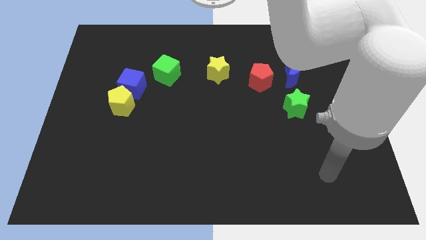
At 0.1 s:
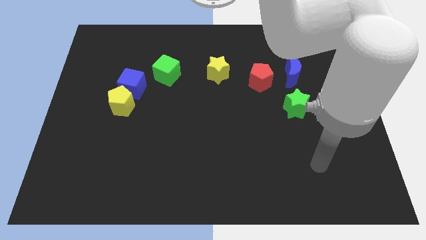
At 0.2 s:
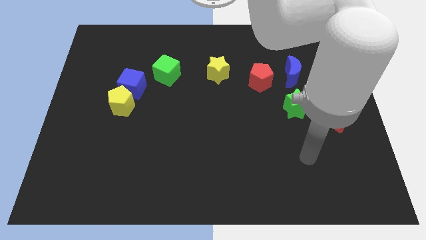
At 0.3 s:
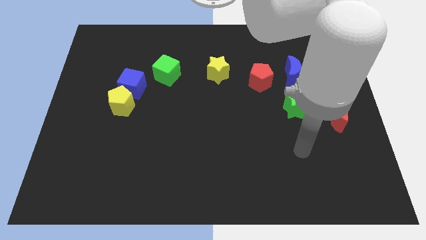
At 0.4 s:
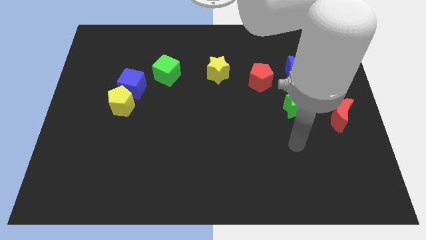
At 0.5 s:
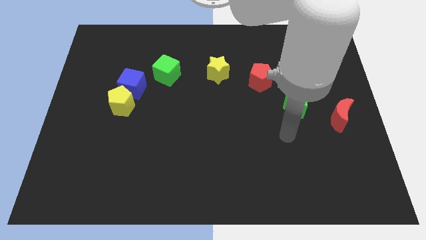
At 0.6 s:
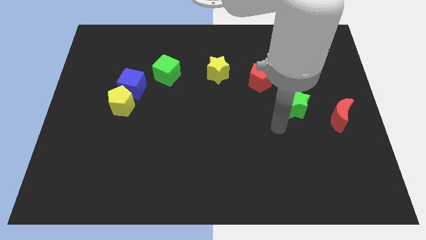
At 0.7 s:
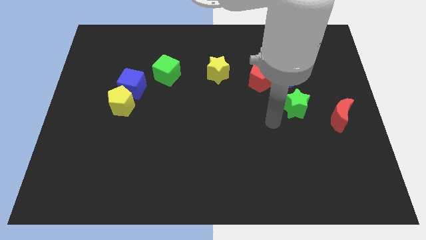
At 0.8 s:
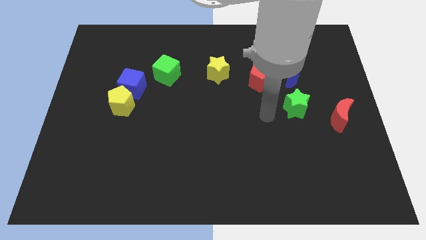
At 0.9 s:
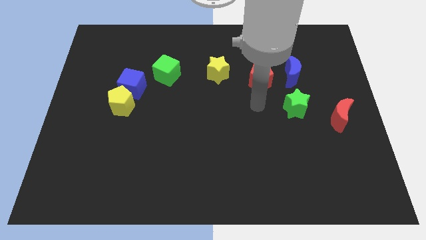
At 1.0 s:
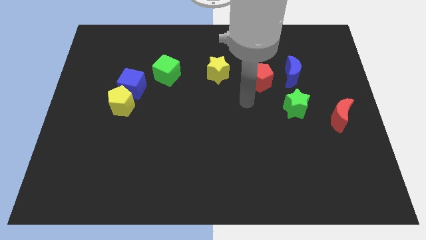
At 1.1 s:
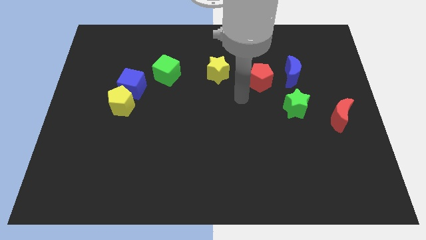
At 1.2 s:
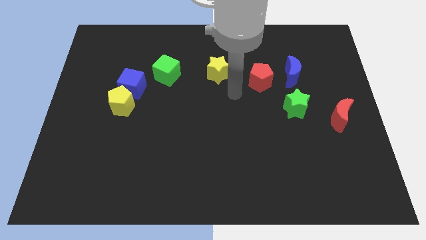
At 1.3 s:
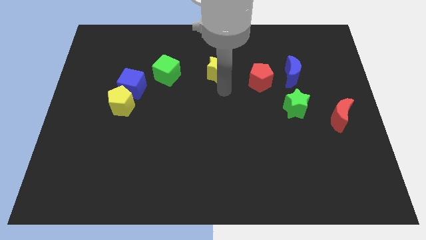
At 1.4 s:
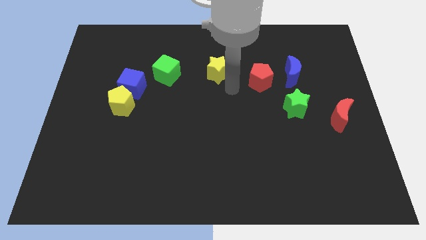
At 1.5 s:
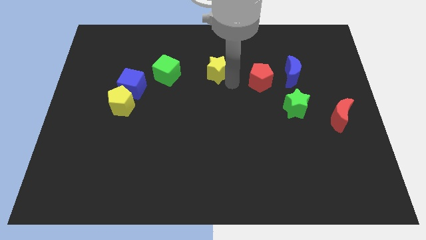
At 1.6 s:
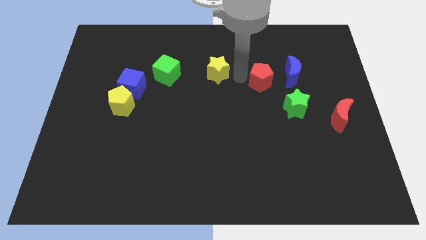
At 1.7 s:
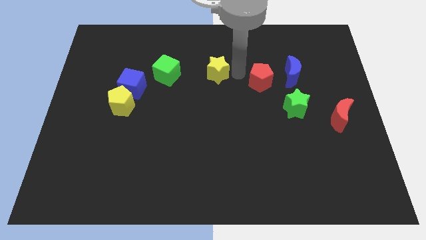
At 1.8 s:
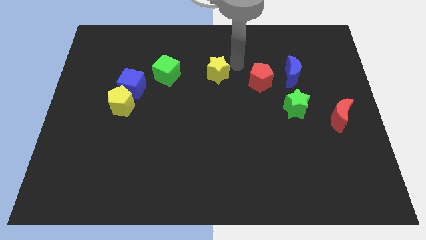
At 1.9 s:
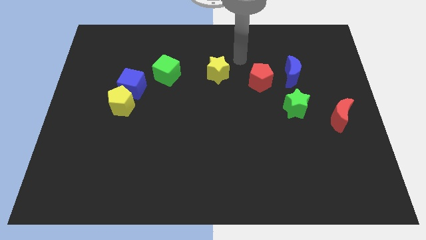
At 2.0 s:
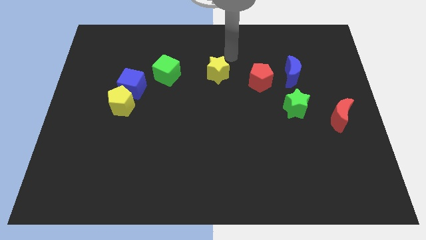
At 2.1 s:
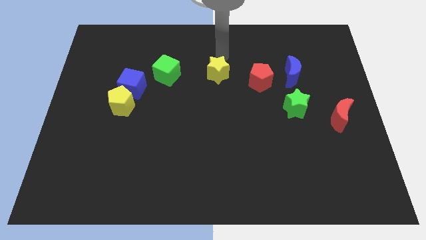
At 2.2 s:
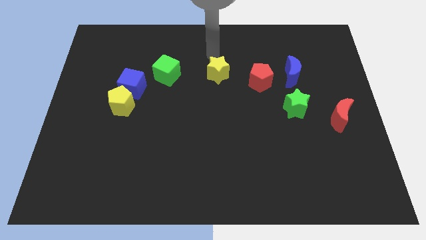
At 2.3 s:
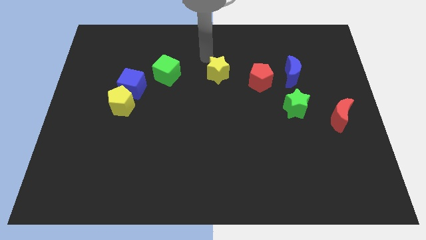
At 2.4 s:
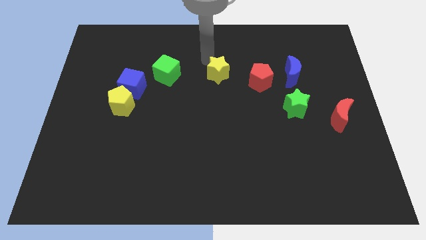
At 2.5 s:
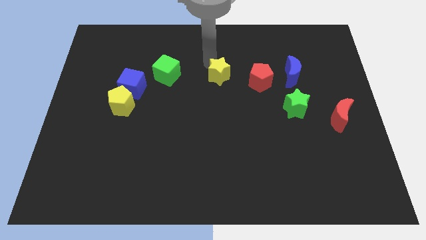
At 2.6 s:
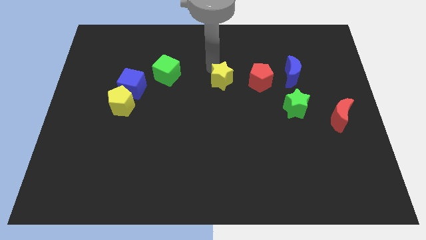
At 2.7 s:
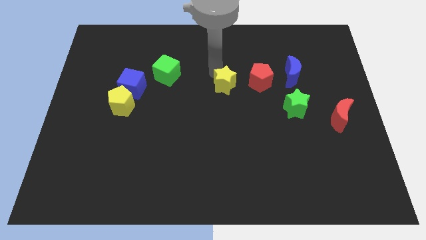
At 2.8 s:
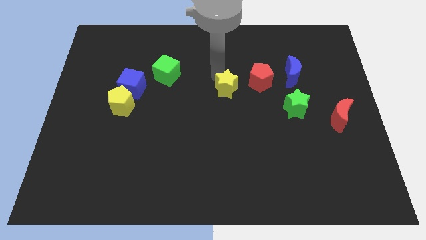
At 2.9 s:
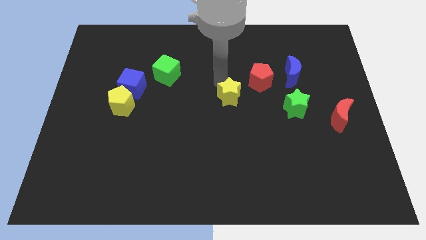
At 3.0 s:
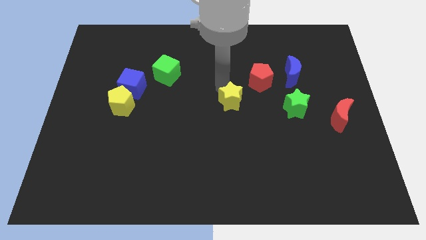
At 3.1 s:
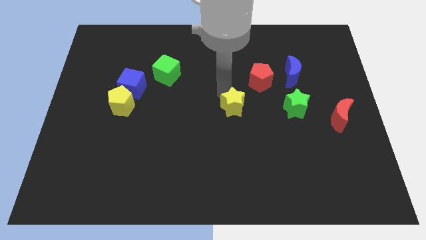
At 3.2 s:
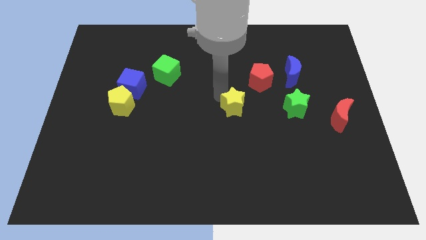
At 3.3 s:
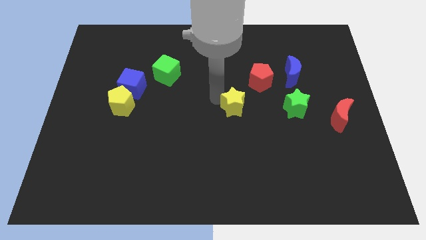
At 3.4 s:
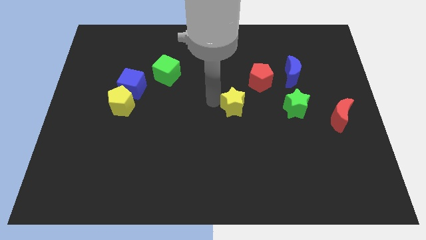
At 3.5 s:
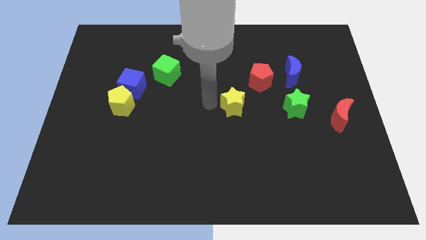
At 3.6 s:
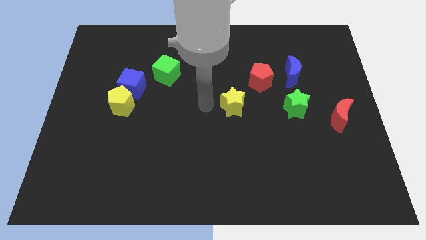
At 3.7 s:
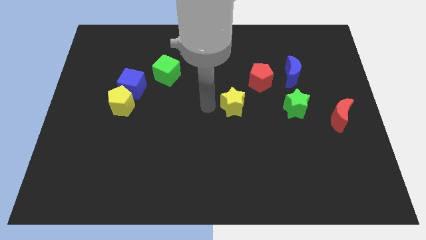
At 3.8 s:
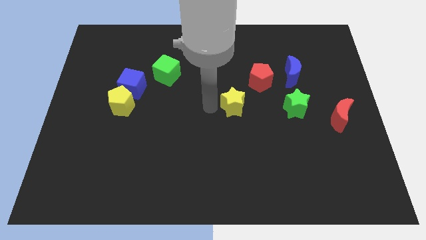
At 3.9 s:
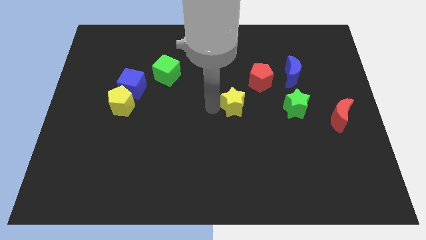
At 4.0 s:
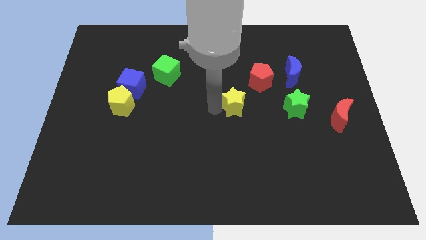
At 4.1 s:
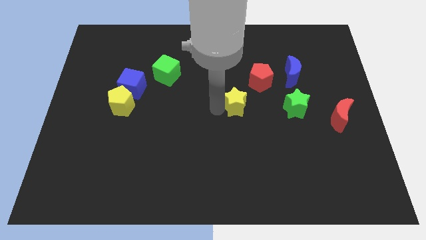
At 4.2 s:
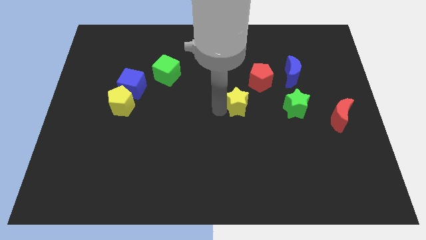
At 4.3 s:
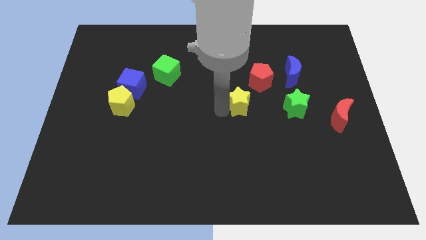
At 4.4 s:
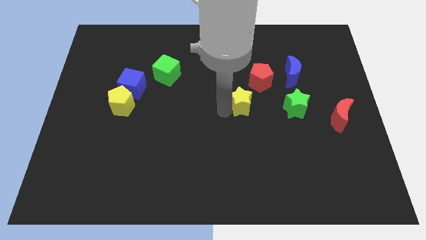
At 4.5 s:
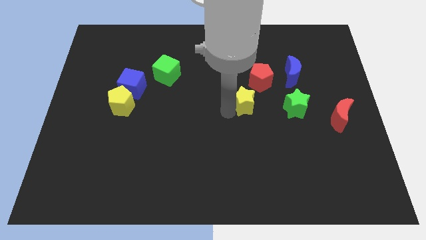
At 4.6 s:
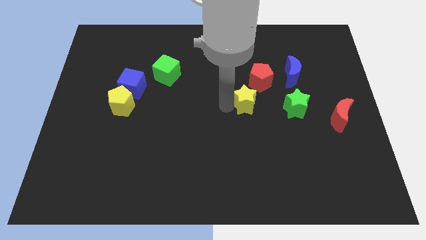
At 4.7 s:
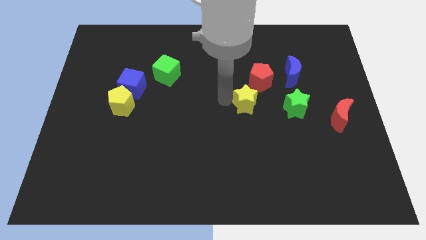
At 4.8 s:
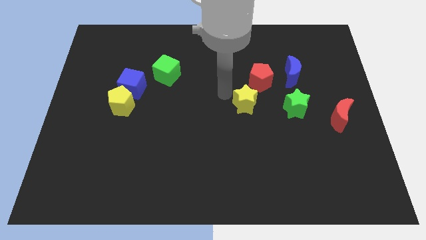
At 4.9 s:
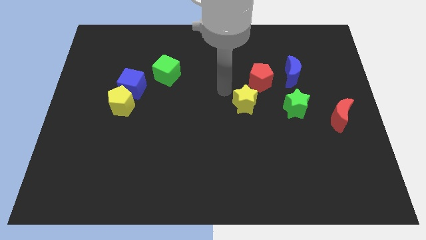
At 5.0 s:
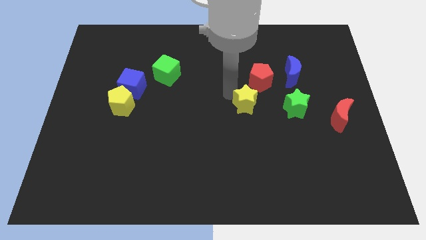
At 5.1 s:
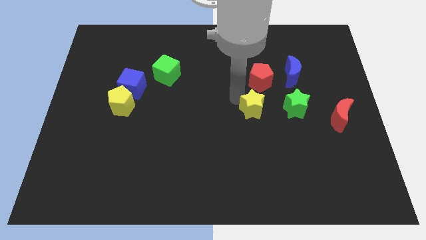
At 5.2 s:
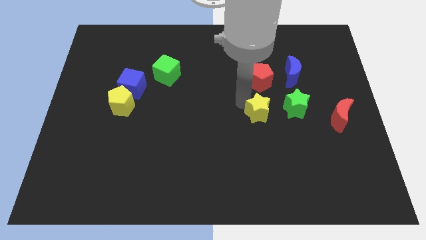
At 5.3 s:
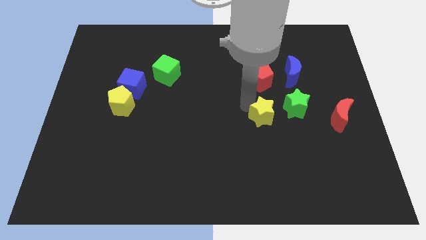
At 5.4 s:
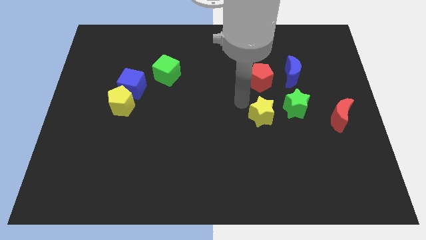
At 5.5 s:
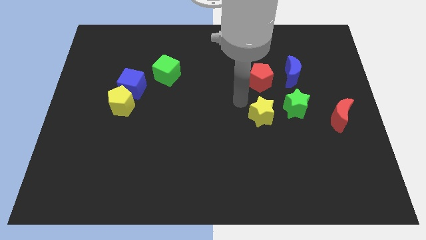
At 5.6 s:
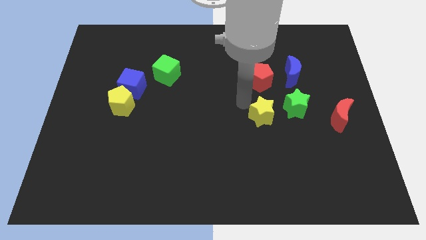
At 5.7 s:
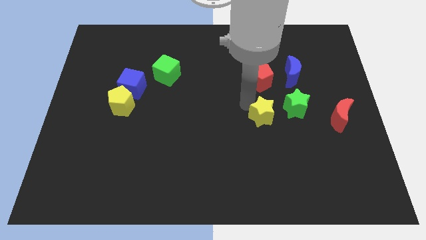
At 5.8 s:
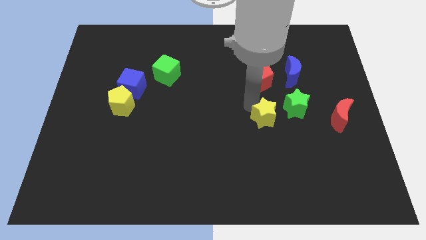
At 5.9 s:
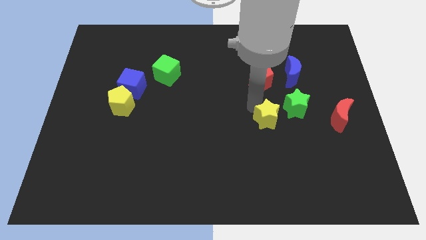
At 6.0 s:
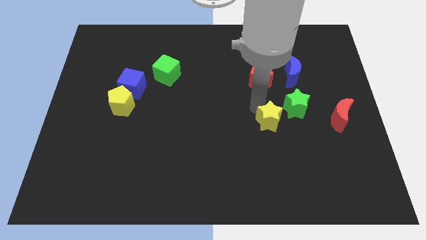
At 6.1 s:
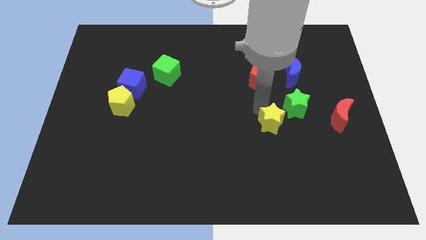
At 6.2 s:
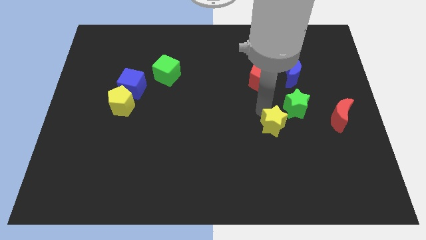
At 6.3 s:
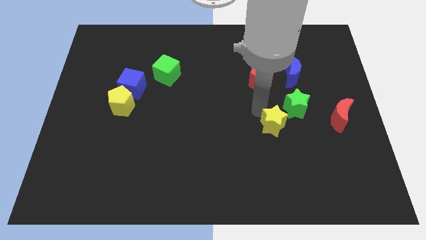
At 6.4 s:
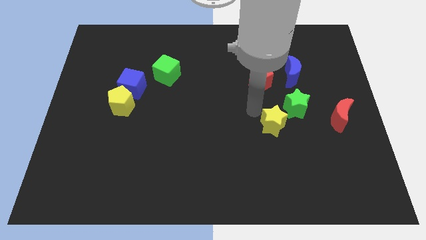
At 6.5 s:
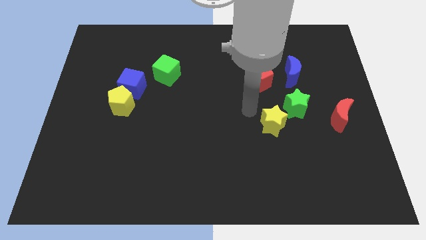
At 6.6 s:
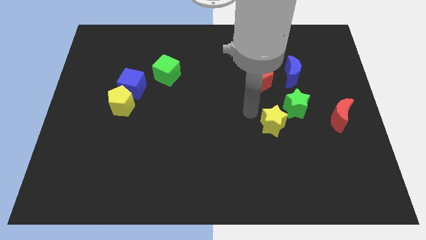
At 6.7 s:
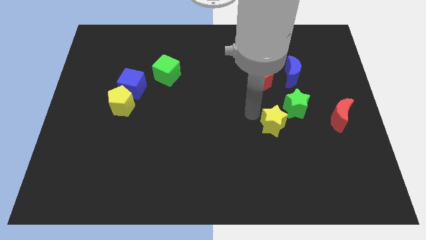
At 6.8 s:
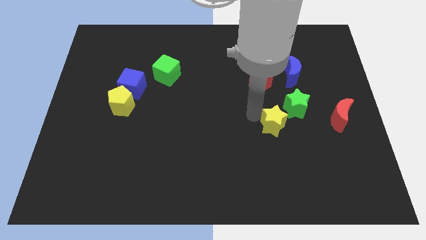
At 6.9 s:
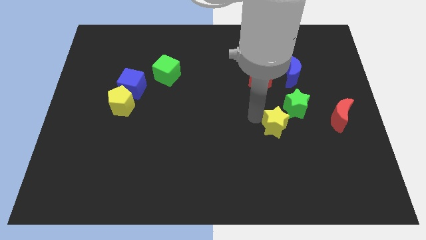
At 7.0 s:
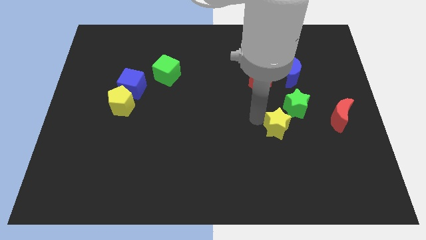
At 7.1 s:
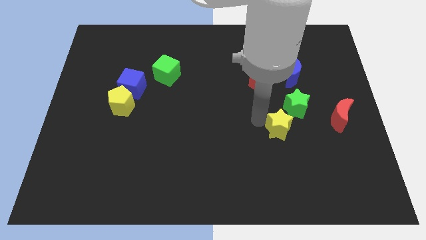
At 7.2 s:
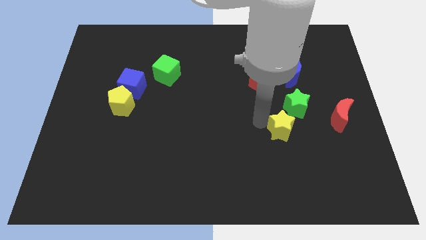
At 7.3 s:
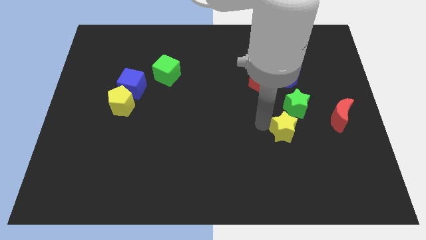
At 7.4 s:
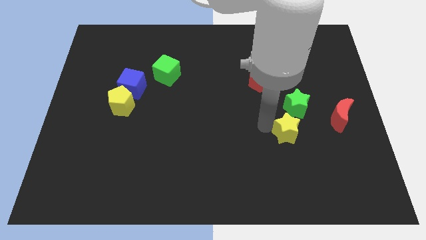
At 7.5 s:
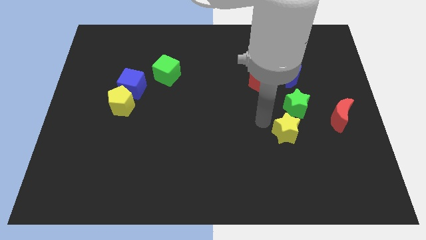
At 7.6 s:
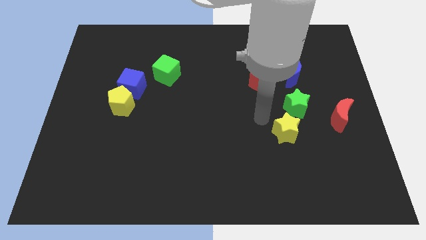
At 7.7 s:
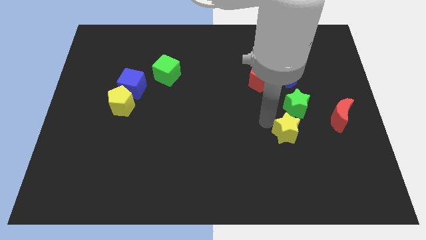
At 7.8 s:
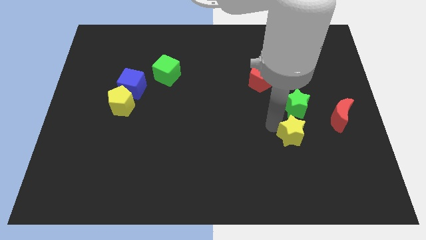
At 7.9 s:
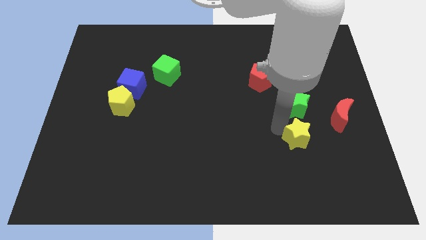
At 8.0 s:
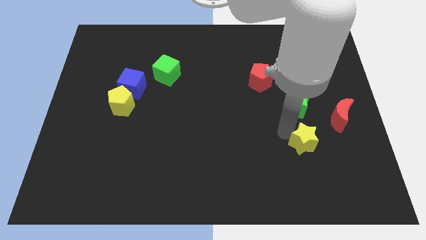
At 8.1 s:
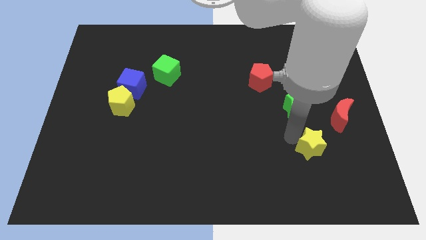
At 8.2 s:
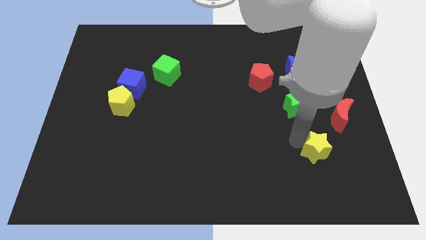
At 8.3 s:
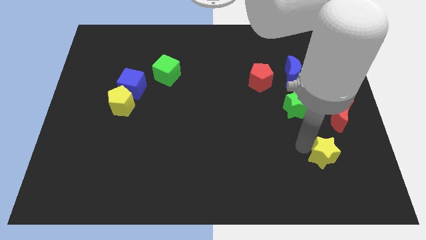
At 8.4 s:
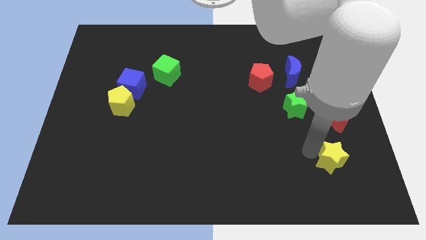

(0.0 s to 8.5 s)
put the yellow star to the bottom side of the red moon
